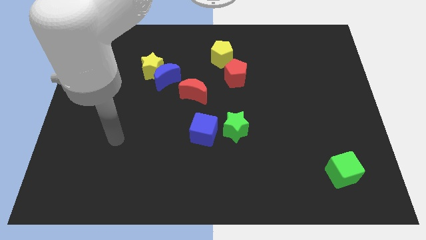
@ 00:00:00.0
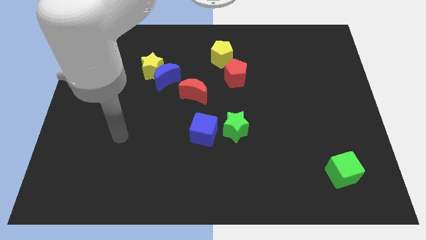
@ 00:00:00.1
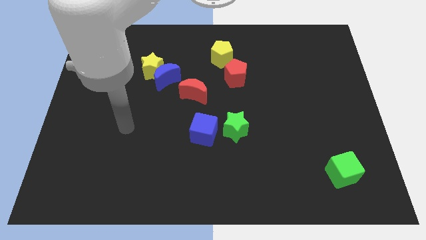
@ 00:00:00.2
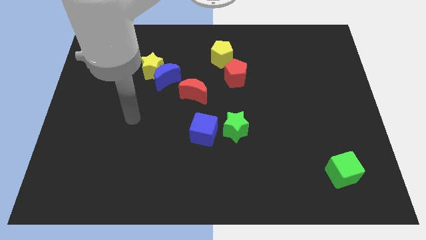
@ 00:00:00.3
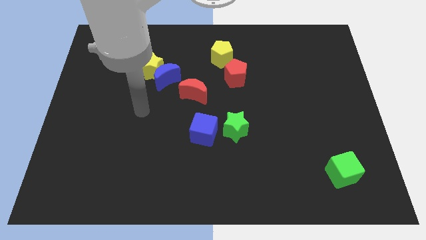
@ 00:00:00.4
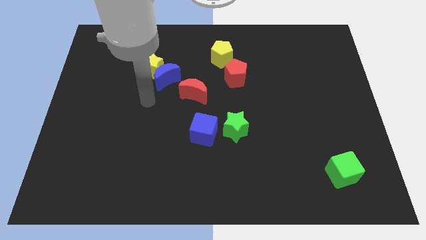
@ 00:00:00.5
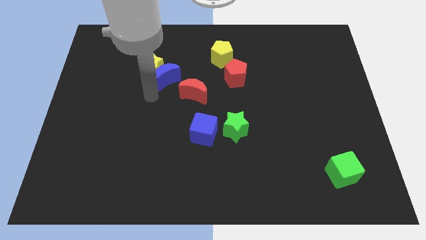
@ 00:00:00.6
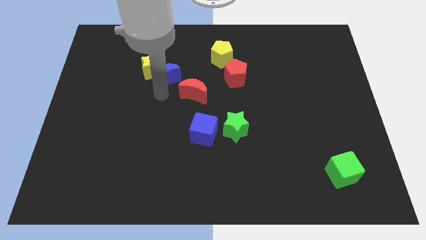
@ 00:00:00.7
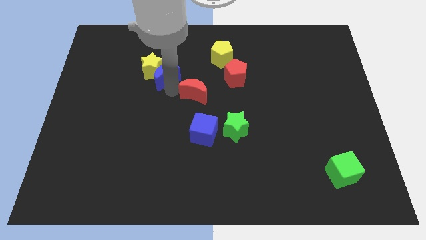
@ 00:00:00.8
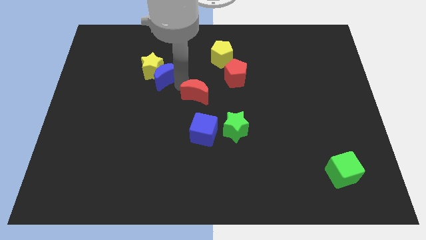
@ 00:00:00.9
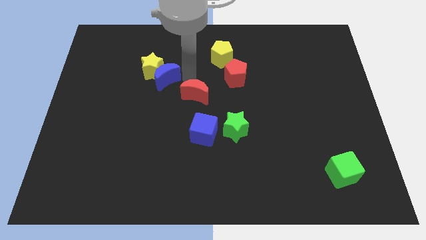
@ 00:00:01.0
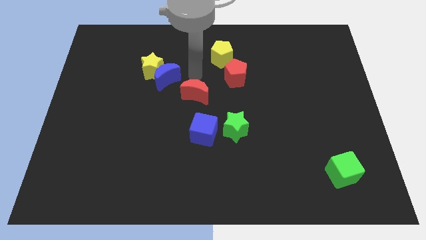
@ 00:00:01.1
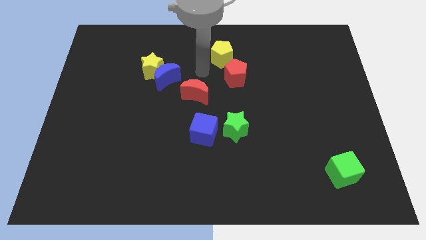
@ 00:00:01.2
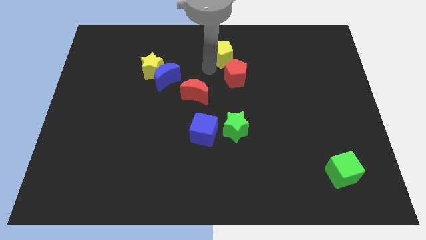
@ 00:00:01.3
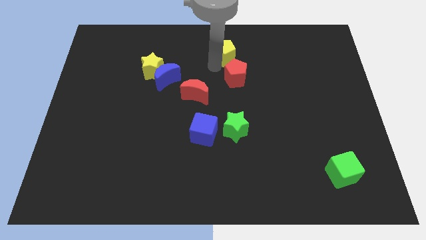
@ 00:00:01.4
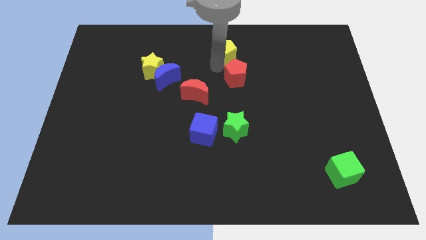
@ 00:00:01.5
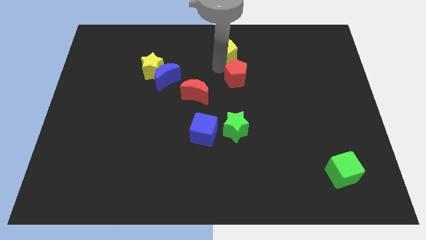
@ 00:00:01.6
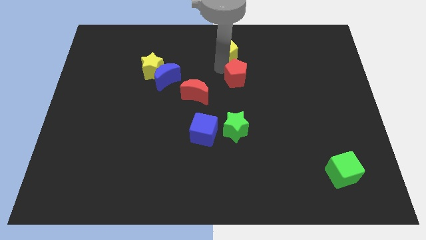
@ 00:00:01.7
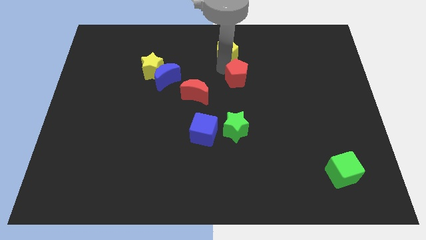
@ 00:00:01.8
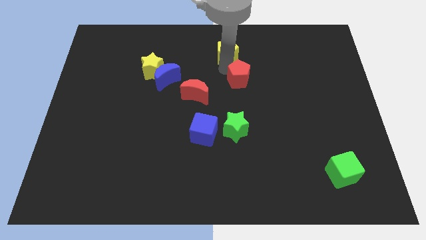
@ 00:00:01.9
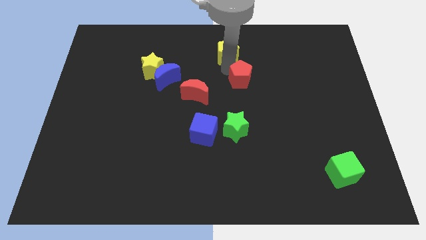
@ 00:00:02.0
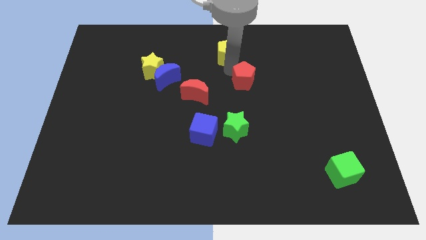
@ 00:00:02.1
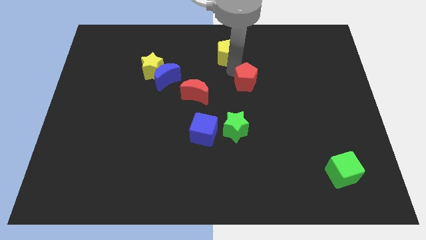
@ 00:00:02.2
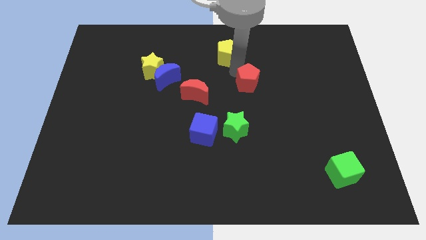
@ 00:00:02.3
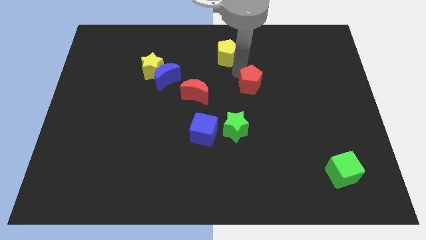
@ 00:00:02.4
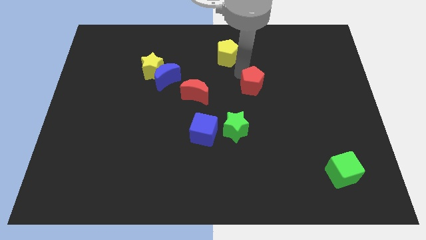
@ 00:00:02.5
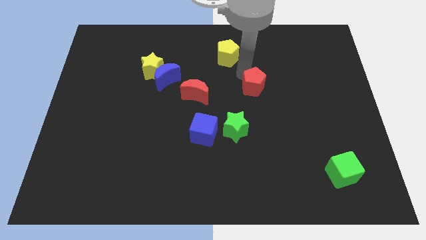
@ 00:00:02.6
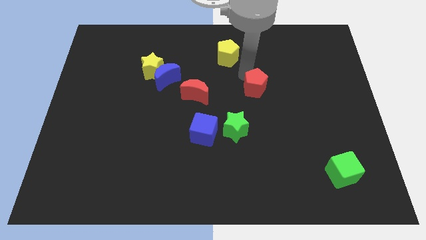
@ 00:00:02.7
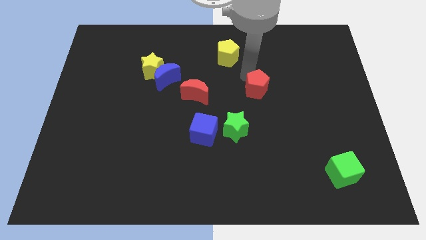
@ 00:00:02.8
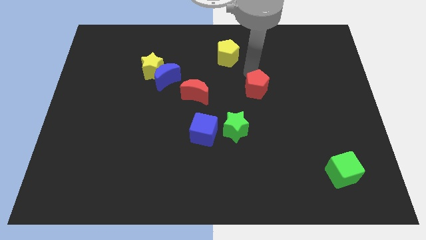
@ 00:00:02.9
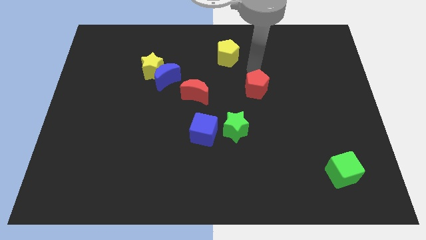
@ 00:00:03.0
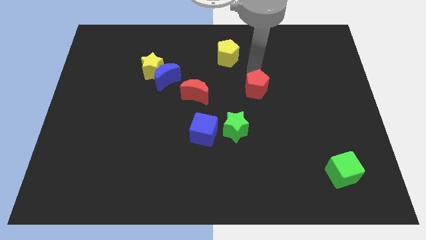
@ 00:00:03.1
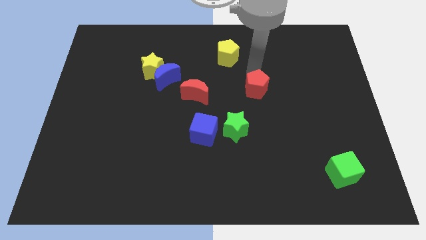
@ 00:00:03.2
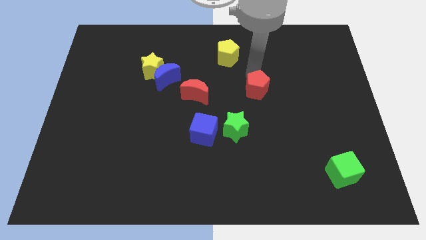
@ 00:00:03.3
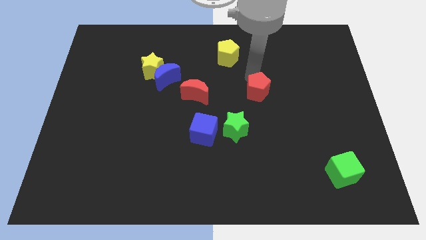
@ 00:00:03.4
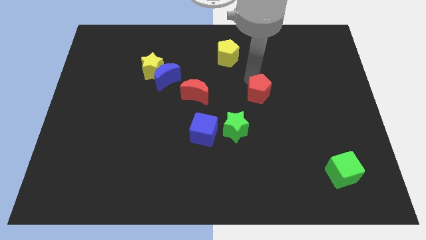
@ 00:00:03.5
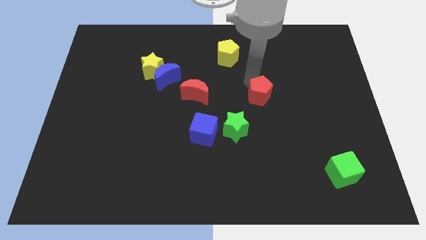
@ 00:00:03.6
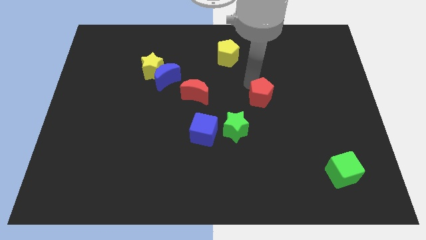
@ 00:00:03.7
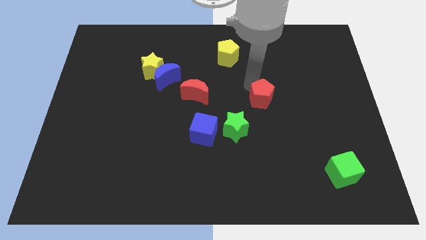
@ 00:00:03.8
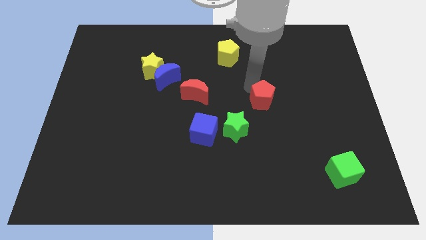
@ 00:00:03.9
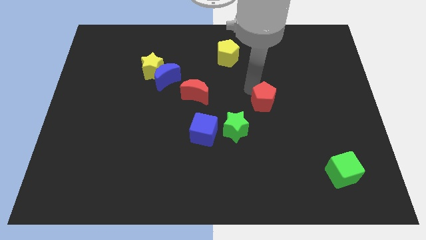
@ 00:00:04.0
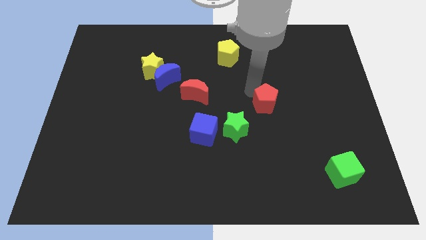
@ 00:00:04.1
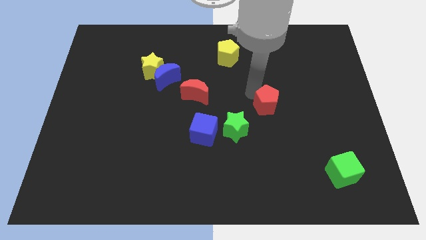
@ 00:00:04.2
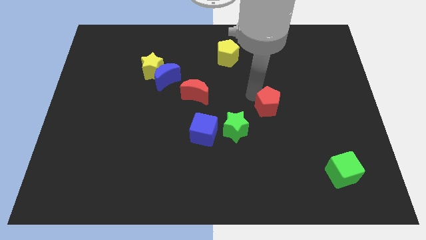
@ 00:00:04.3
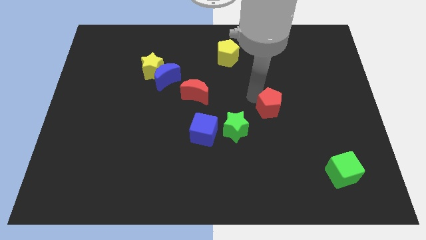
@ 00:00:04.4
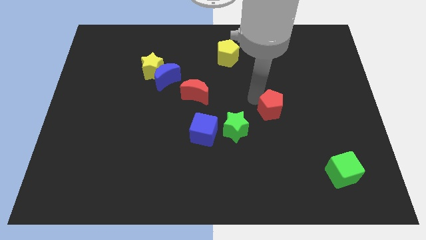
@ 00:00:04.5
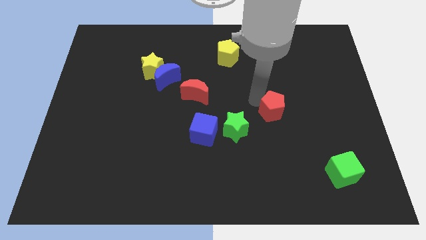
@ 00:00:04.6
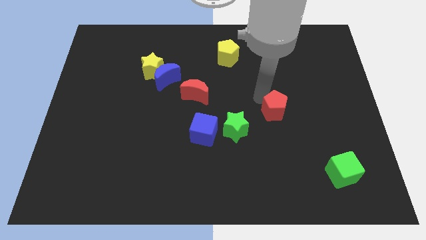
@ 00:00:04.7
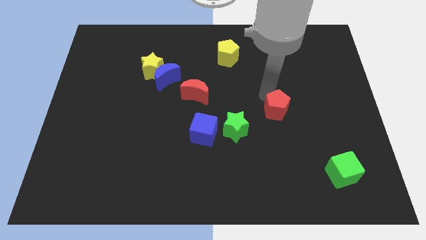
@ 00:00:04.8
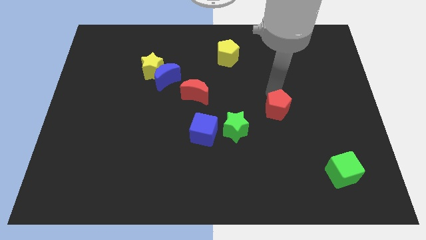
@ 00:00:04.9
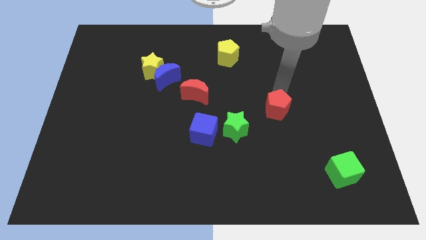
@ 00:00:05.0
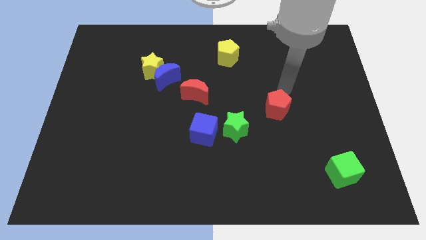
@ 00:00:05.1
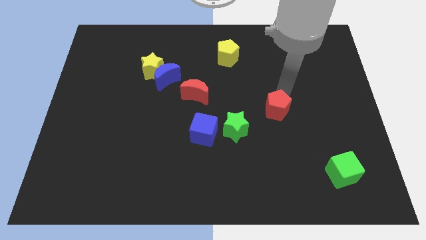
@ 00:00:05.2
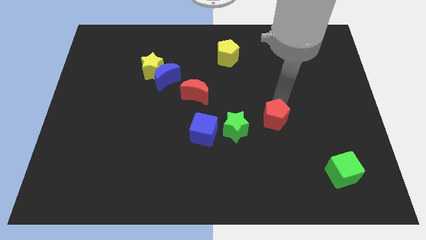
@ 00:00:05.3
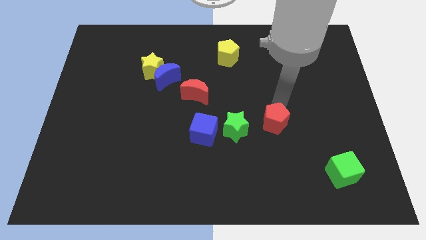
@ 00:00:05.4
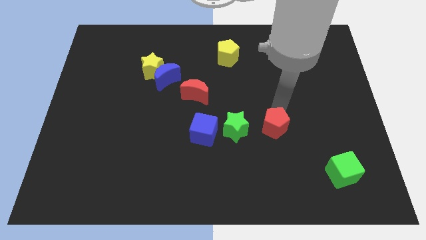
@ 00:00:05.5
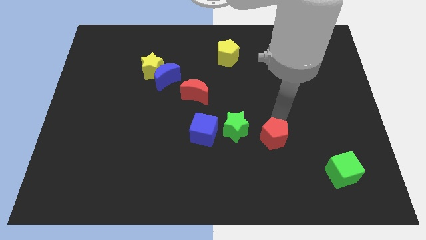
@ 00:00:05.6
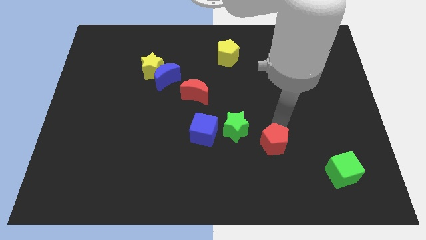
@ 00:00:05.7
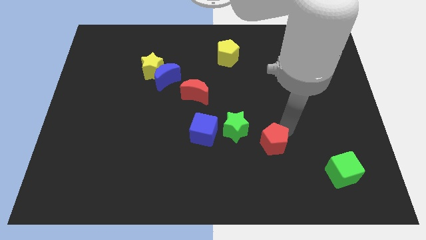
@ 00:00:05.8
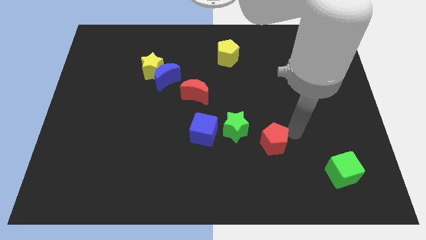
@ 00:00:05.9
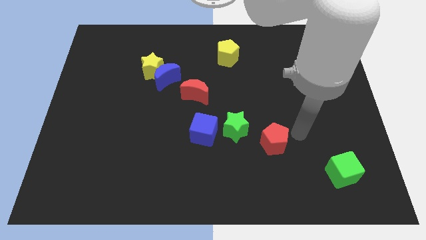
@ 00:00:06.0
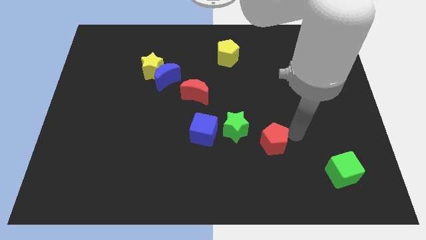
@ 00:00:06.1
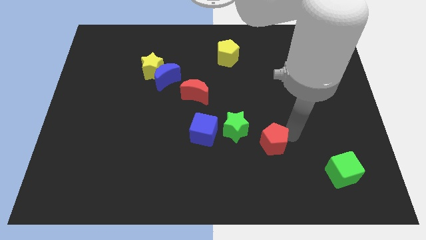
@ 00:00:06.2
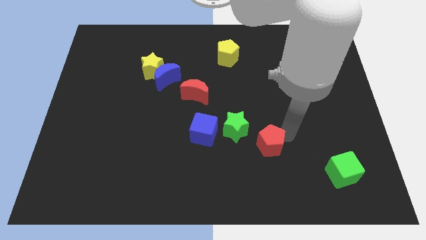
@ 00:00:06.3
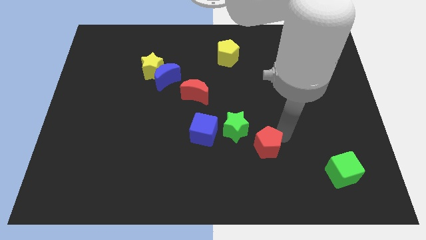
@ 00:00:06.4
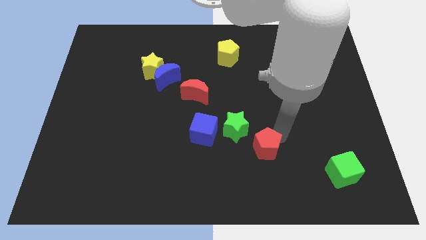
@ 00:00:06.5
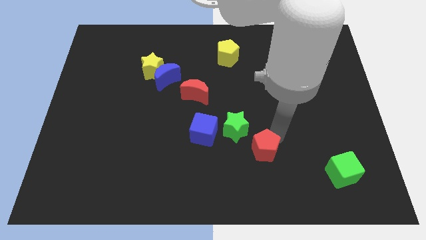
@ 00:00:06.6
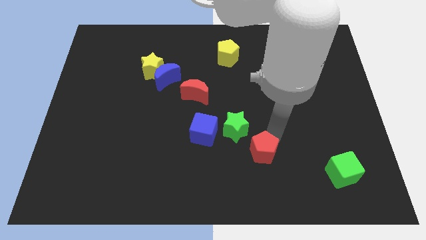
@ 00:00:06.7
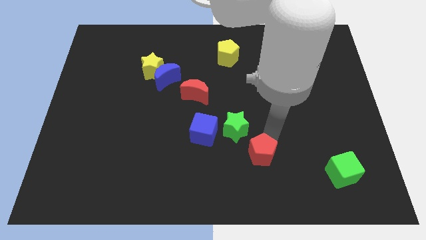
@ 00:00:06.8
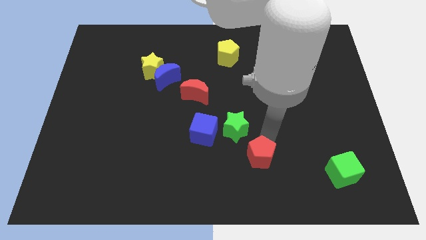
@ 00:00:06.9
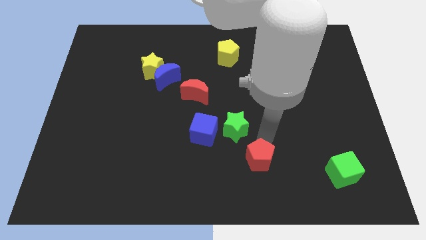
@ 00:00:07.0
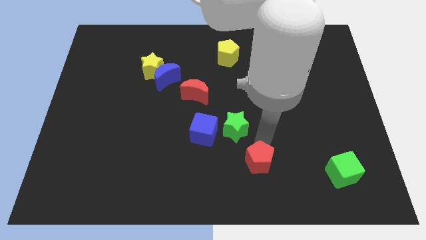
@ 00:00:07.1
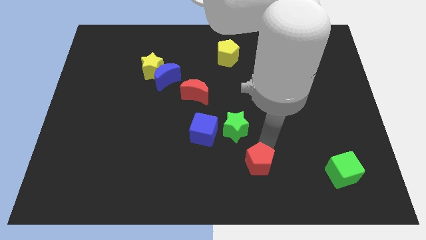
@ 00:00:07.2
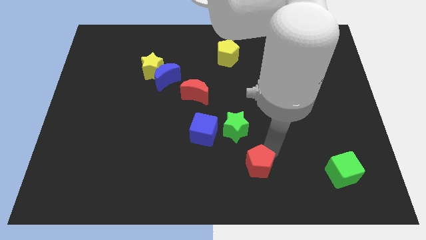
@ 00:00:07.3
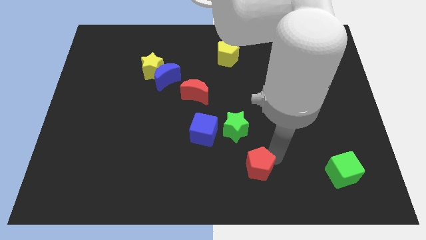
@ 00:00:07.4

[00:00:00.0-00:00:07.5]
move the red pentagon to the bottom side

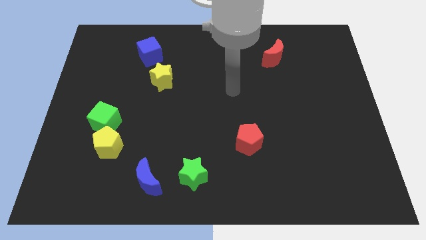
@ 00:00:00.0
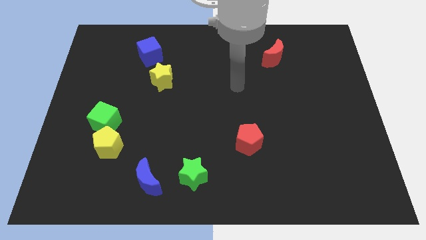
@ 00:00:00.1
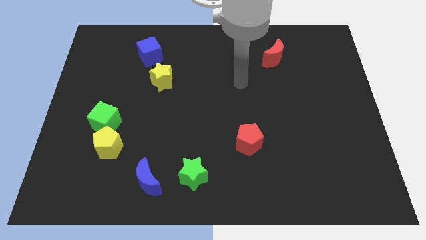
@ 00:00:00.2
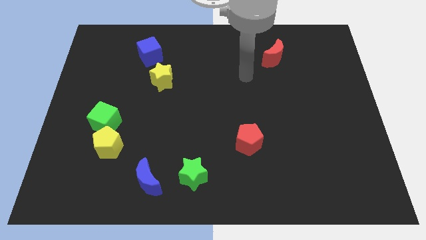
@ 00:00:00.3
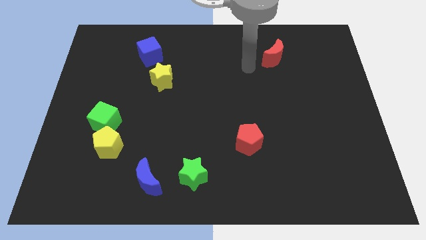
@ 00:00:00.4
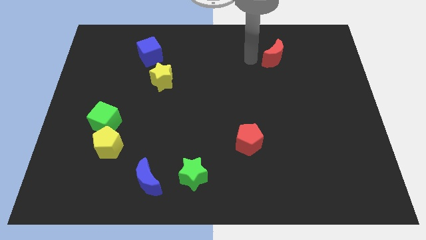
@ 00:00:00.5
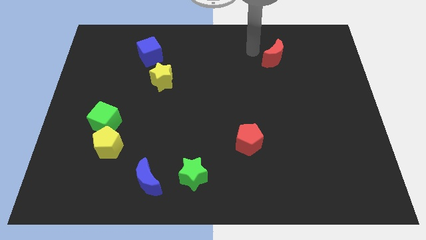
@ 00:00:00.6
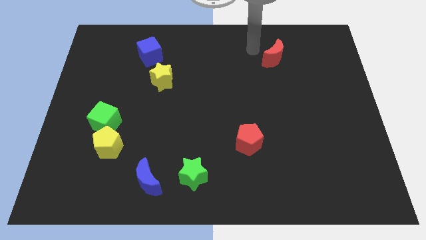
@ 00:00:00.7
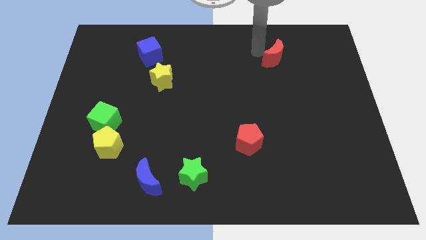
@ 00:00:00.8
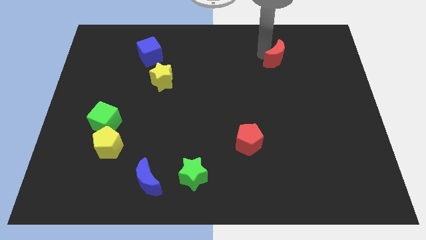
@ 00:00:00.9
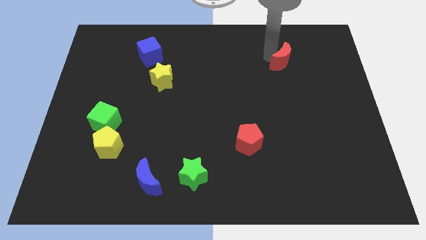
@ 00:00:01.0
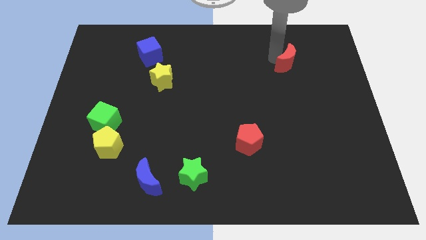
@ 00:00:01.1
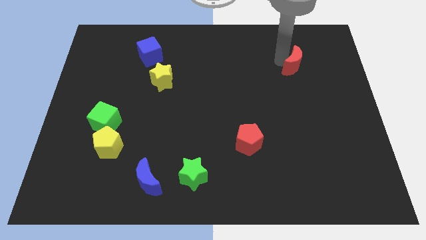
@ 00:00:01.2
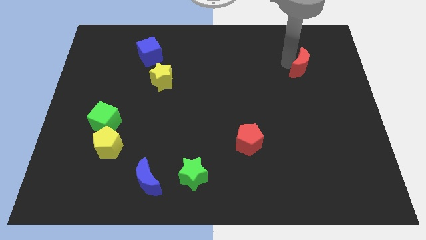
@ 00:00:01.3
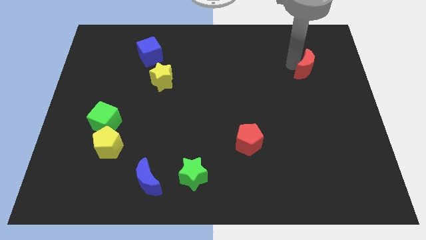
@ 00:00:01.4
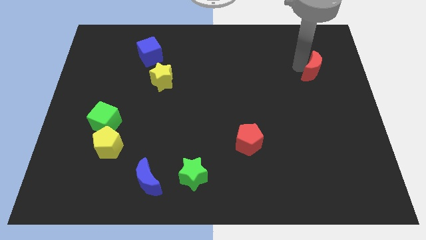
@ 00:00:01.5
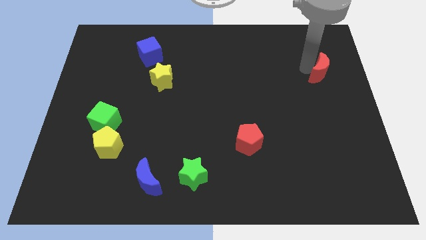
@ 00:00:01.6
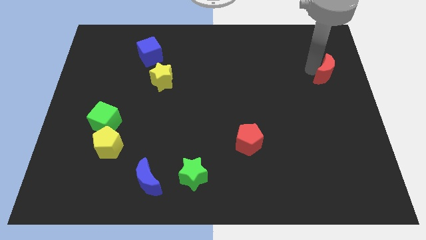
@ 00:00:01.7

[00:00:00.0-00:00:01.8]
move the red moon to the right side of the board
